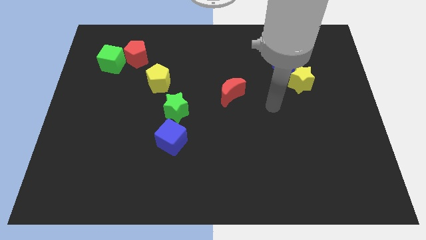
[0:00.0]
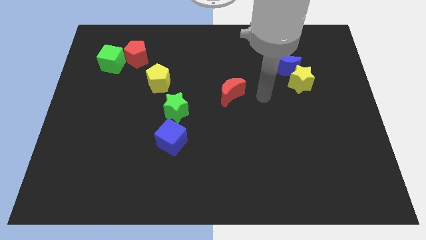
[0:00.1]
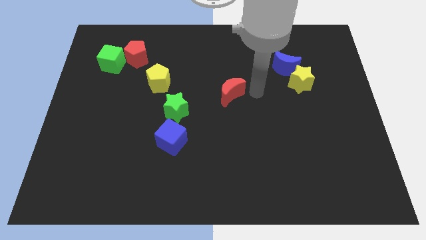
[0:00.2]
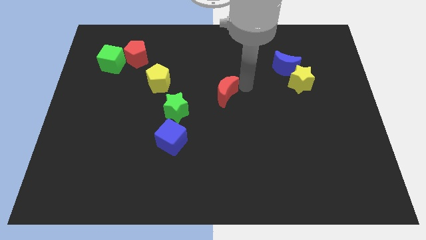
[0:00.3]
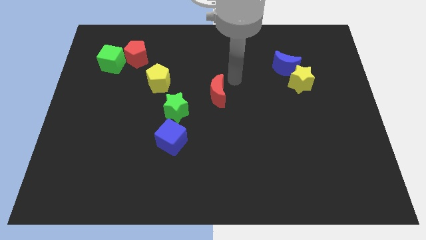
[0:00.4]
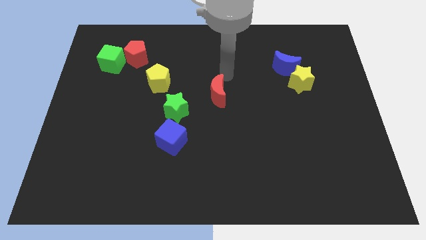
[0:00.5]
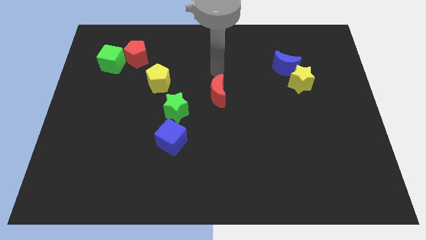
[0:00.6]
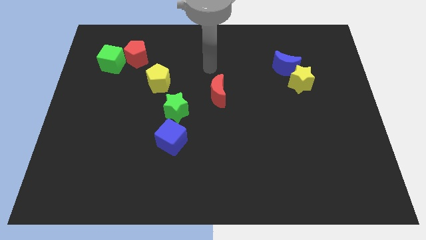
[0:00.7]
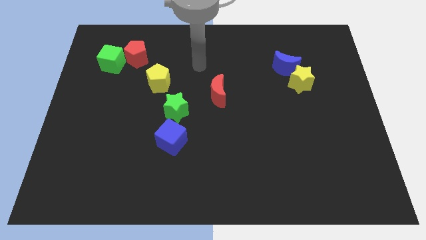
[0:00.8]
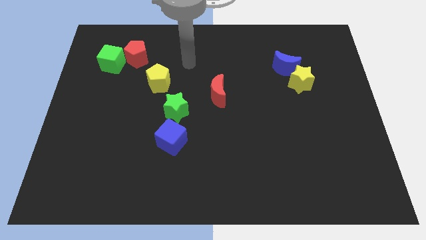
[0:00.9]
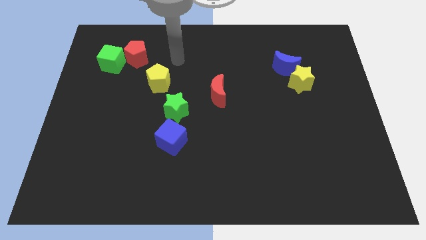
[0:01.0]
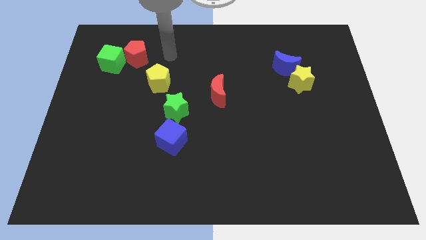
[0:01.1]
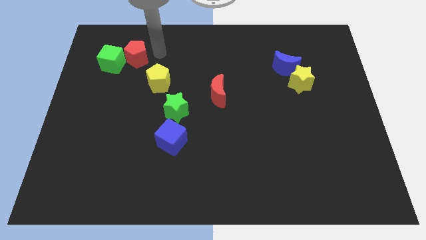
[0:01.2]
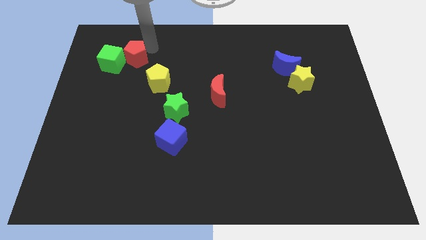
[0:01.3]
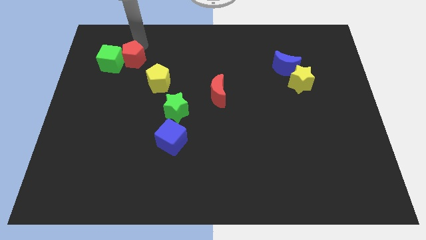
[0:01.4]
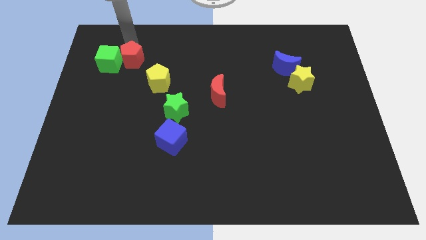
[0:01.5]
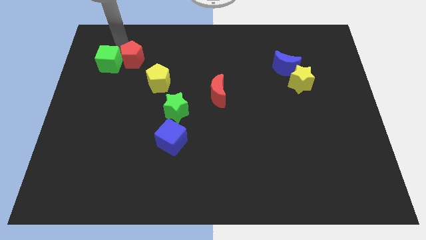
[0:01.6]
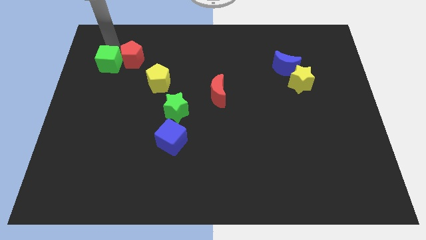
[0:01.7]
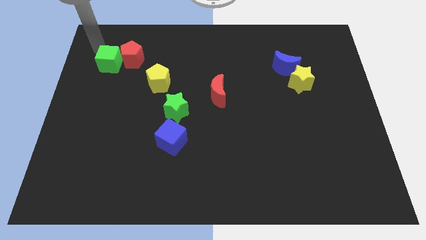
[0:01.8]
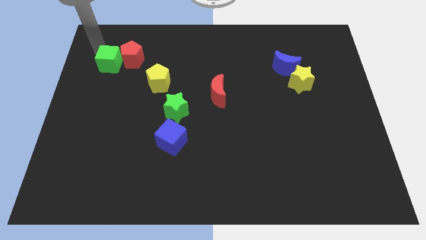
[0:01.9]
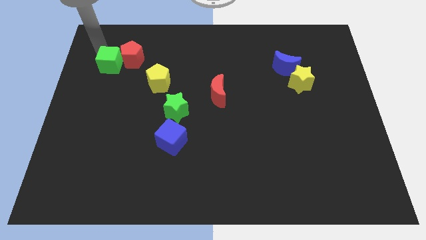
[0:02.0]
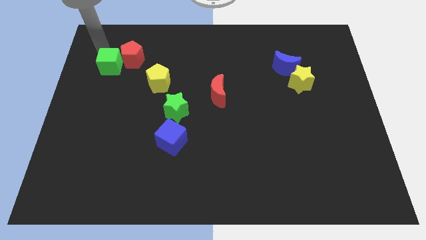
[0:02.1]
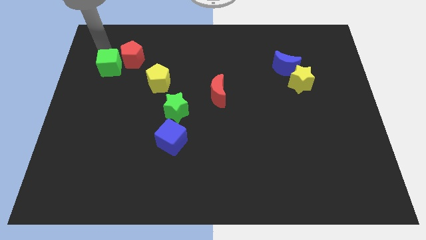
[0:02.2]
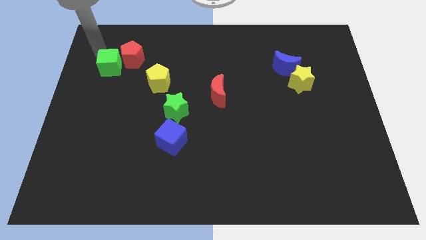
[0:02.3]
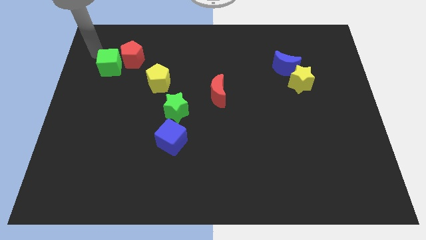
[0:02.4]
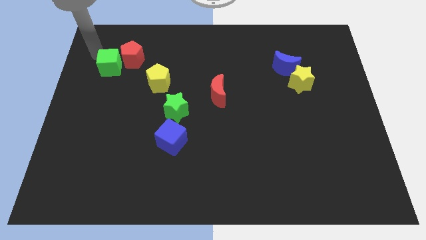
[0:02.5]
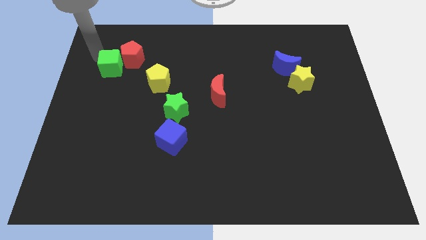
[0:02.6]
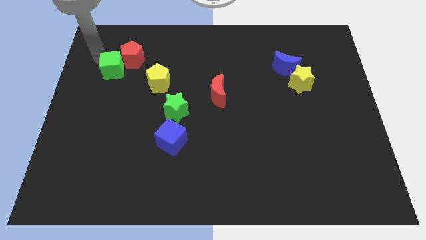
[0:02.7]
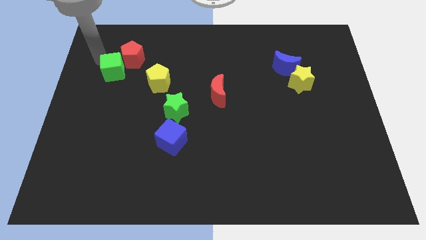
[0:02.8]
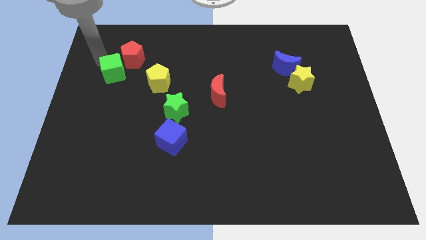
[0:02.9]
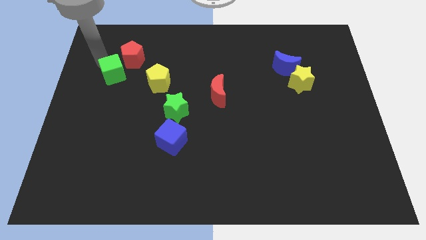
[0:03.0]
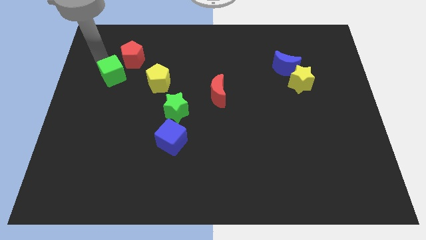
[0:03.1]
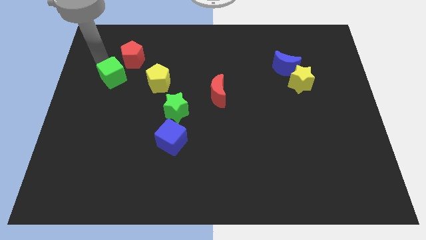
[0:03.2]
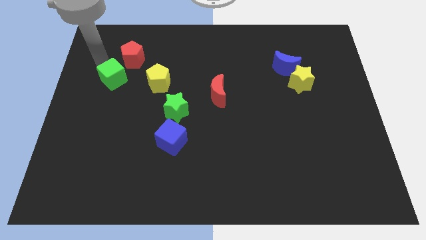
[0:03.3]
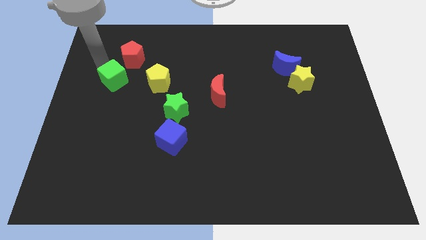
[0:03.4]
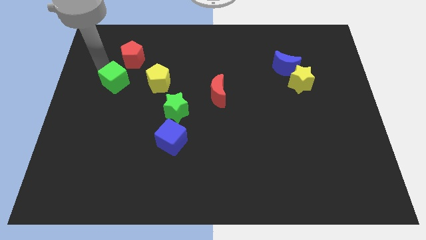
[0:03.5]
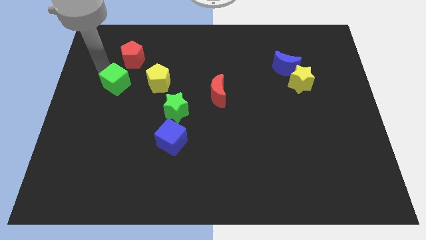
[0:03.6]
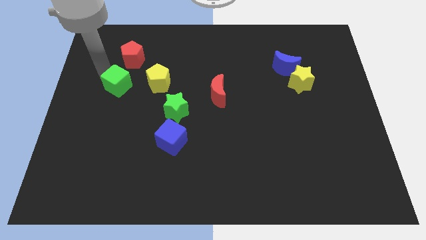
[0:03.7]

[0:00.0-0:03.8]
slightly move the green cube down and right diagonally

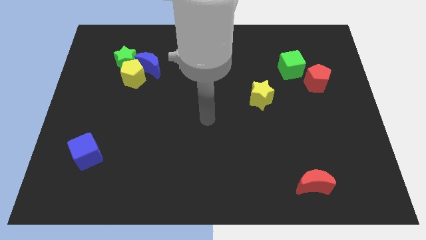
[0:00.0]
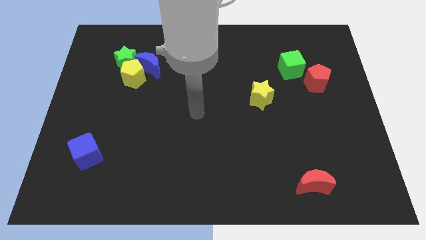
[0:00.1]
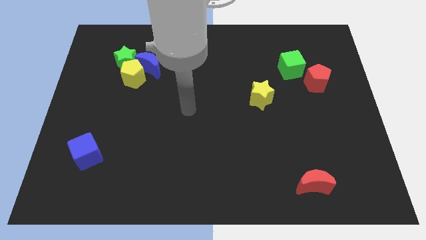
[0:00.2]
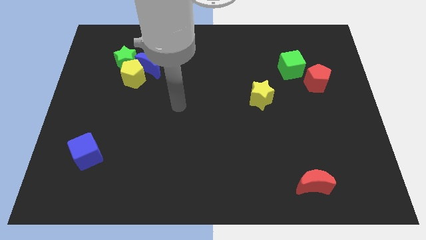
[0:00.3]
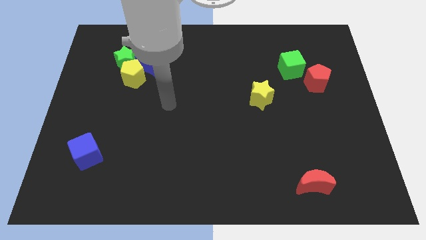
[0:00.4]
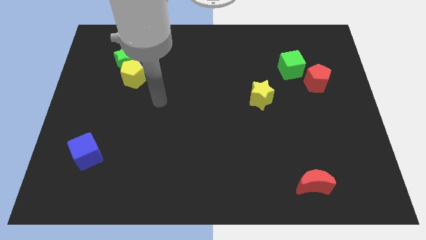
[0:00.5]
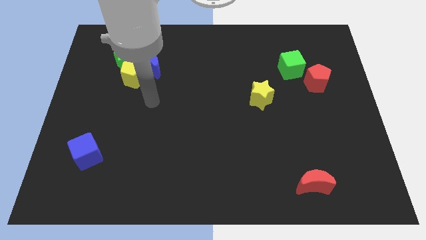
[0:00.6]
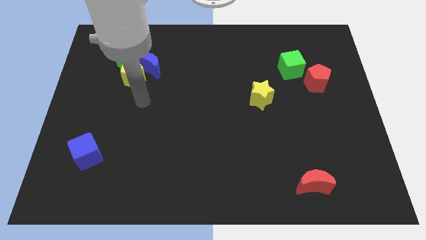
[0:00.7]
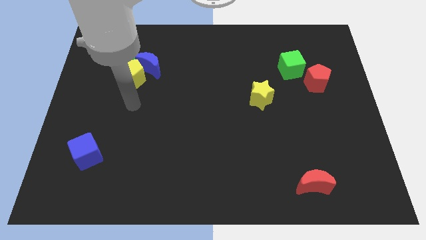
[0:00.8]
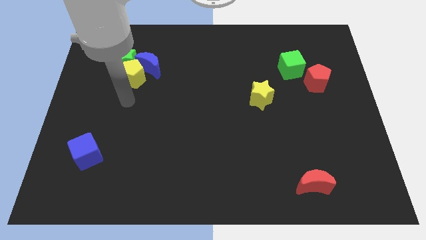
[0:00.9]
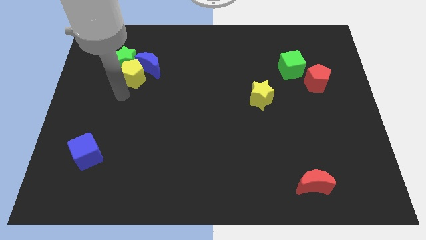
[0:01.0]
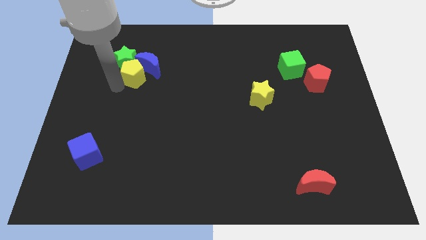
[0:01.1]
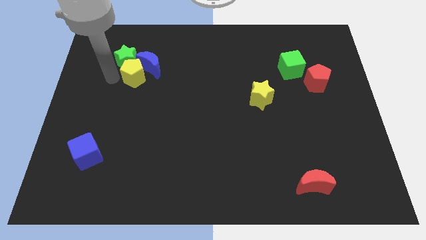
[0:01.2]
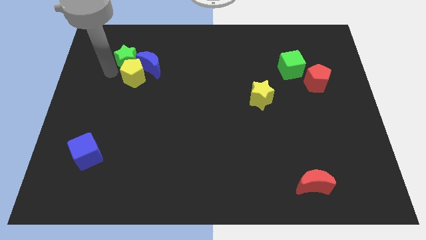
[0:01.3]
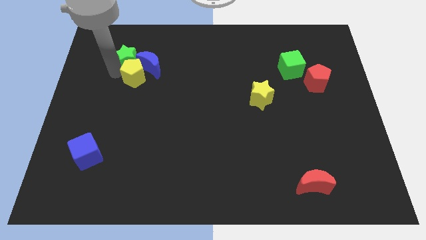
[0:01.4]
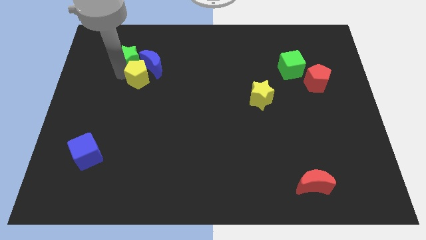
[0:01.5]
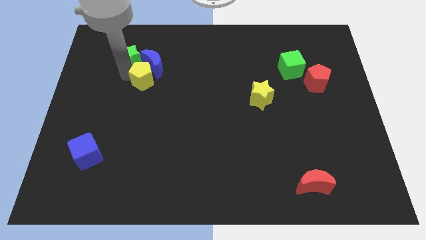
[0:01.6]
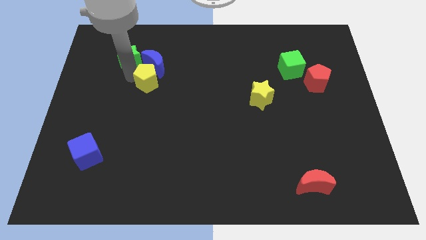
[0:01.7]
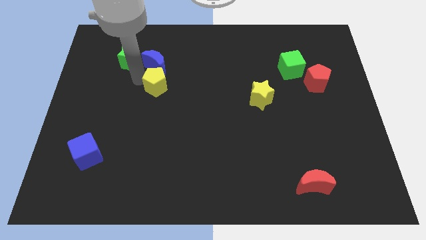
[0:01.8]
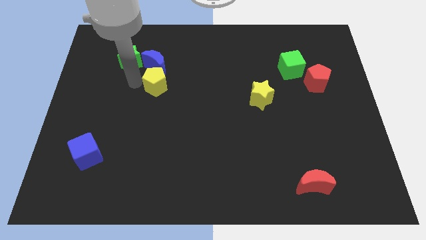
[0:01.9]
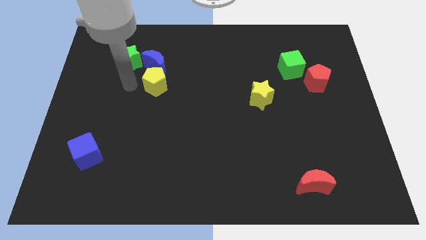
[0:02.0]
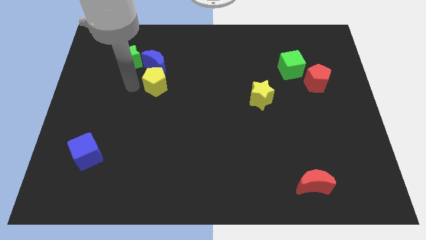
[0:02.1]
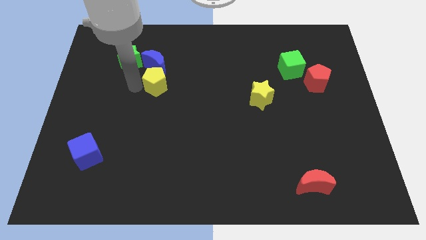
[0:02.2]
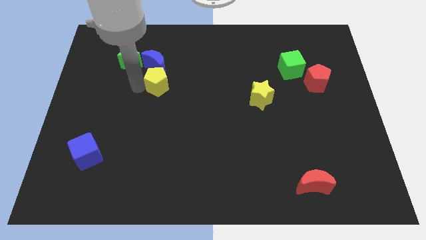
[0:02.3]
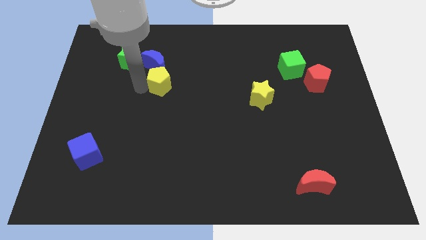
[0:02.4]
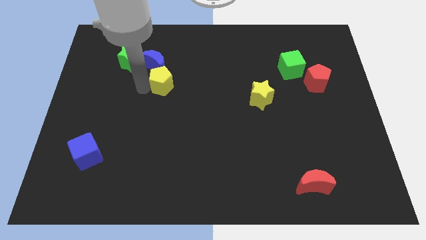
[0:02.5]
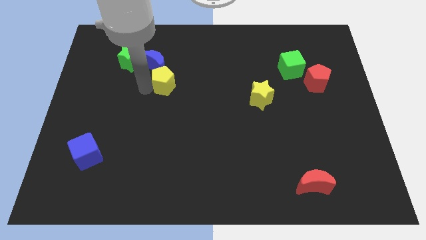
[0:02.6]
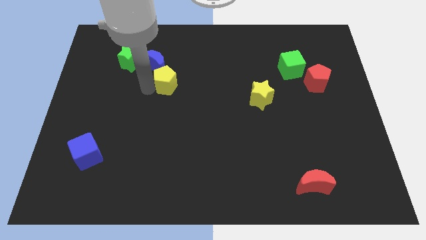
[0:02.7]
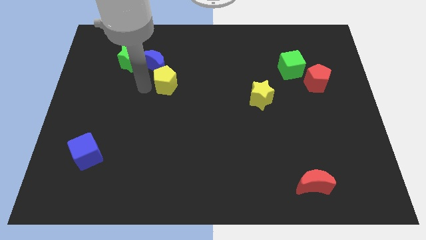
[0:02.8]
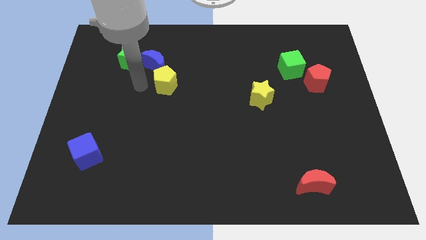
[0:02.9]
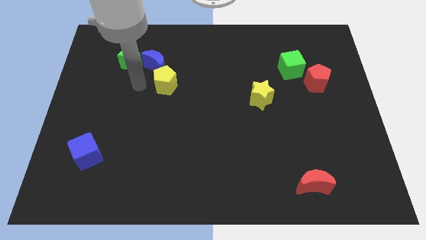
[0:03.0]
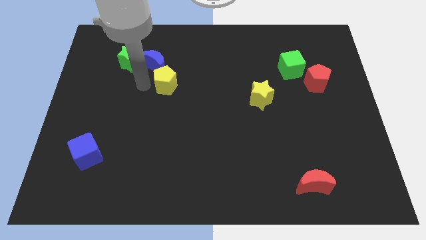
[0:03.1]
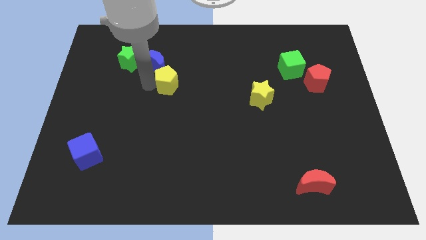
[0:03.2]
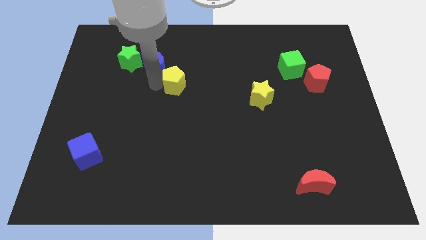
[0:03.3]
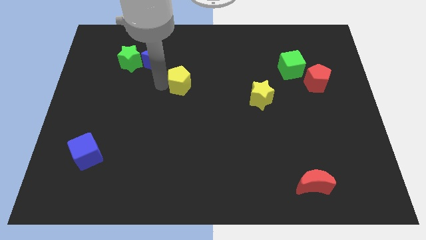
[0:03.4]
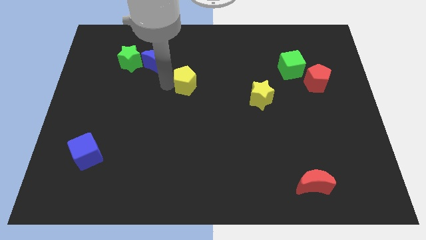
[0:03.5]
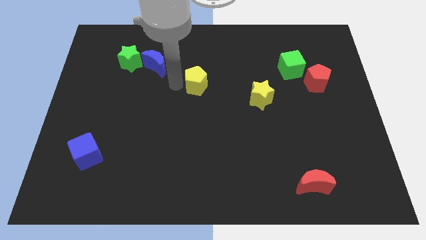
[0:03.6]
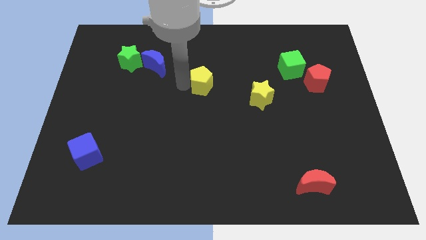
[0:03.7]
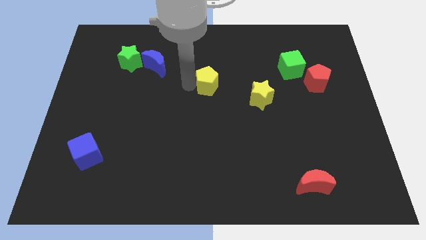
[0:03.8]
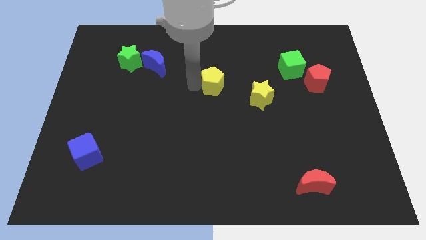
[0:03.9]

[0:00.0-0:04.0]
move the yellow pentagon right
